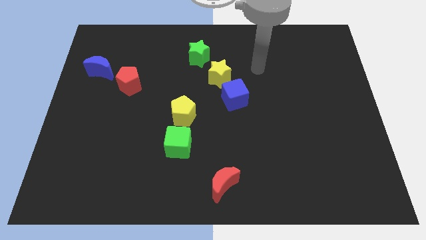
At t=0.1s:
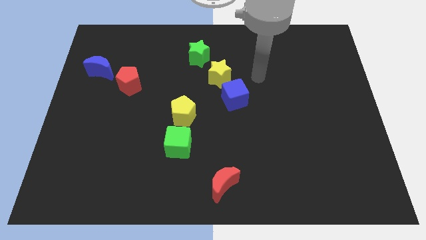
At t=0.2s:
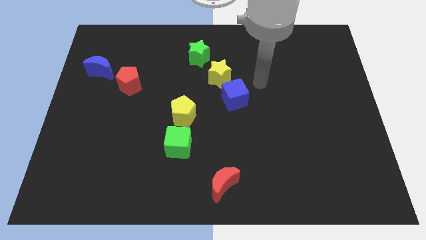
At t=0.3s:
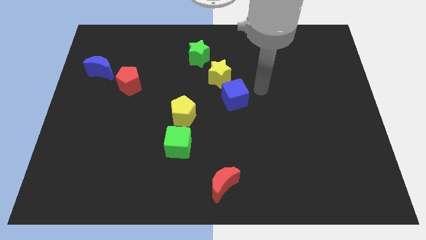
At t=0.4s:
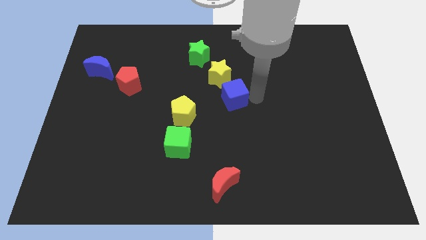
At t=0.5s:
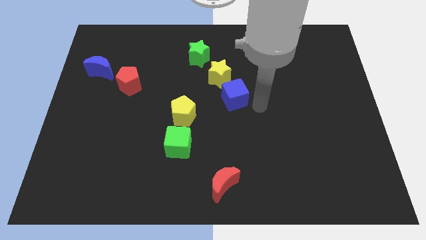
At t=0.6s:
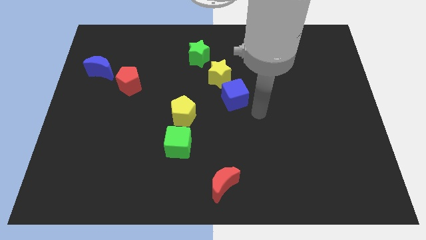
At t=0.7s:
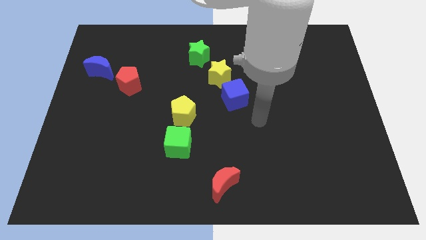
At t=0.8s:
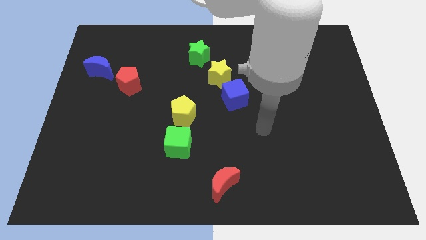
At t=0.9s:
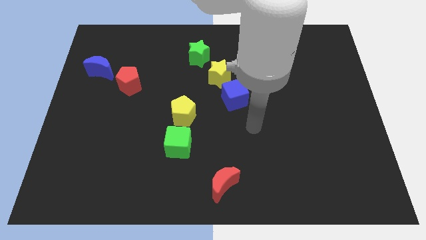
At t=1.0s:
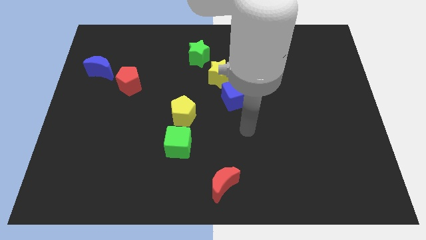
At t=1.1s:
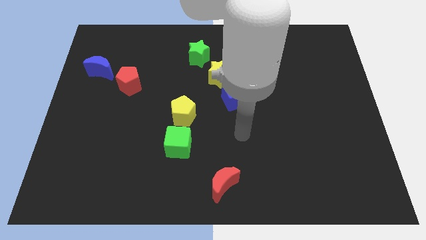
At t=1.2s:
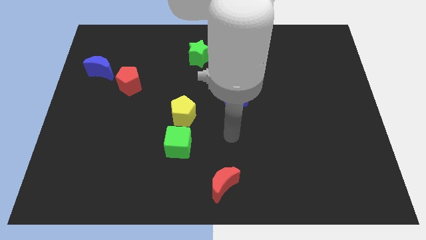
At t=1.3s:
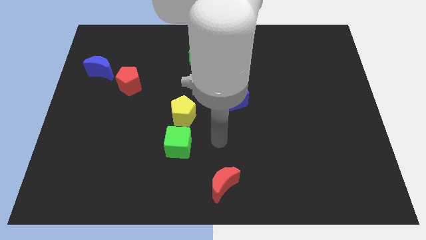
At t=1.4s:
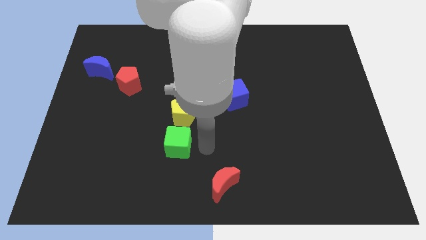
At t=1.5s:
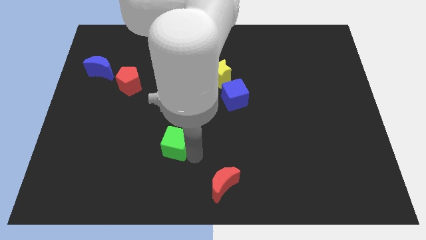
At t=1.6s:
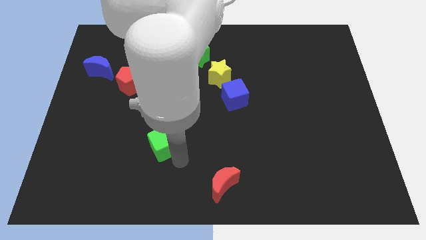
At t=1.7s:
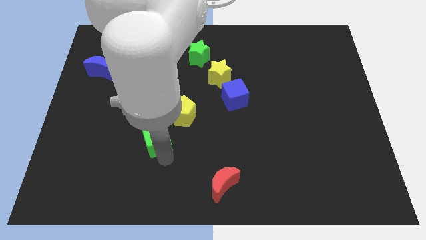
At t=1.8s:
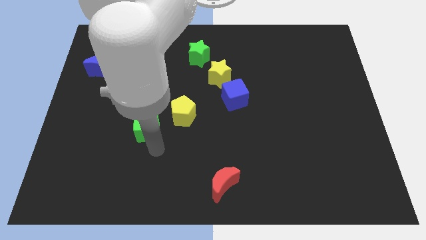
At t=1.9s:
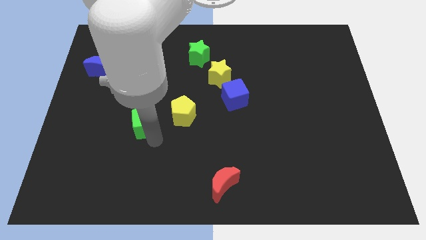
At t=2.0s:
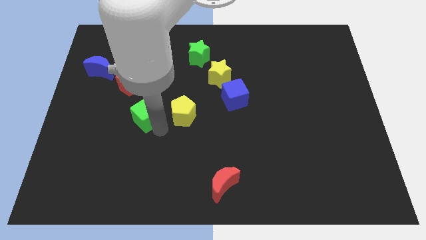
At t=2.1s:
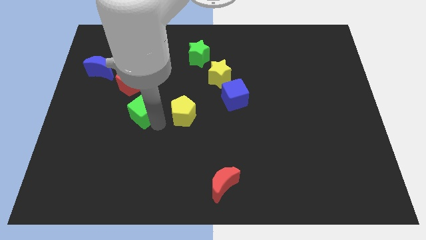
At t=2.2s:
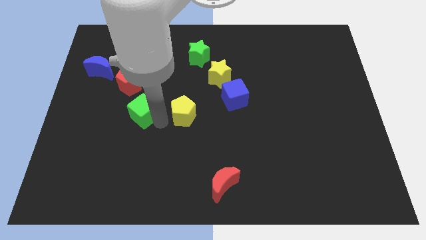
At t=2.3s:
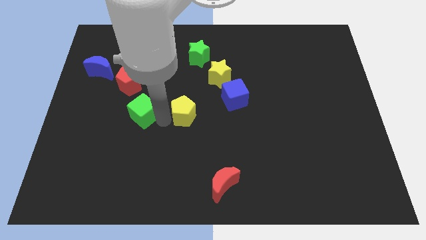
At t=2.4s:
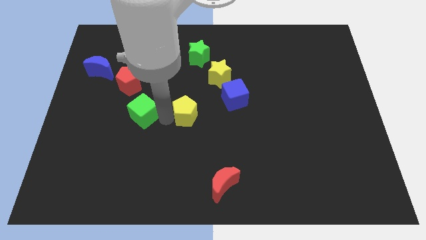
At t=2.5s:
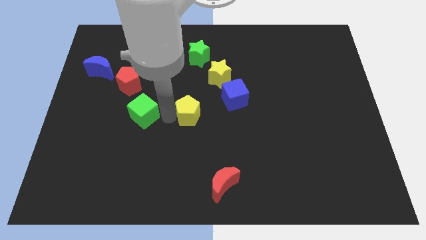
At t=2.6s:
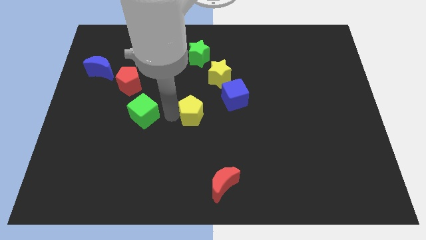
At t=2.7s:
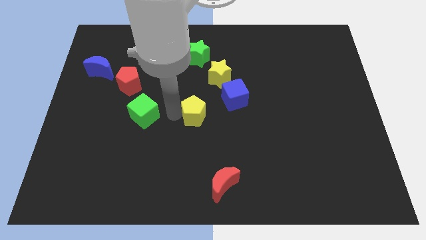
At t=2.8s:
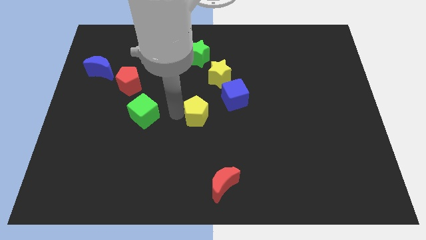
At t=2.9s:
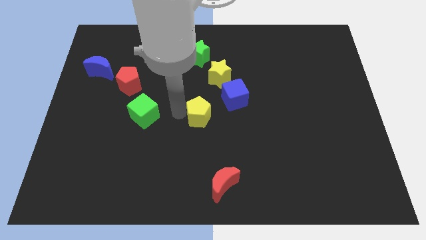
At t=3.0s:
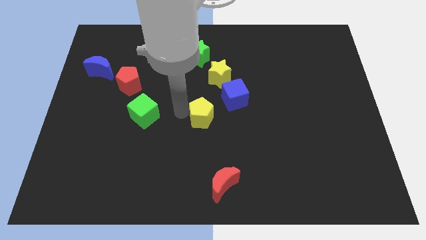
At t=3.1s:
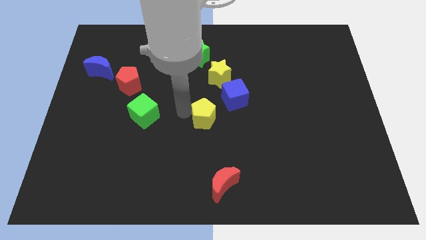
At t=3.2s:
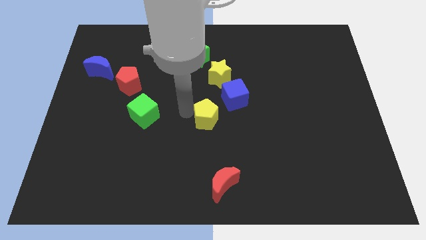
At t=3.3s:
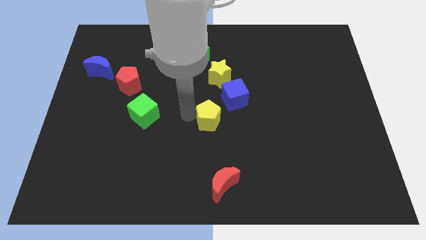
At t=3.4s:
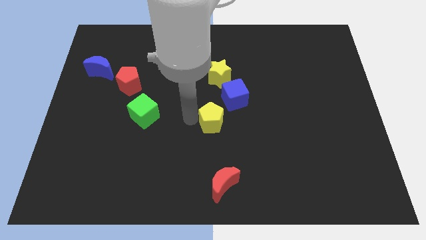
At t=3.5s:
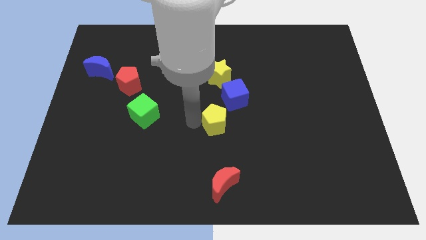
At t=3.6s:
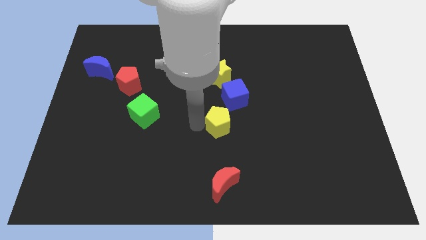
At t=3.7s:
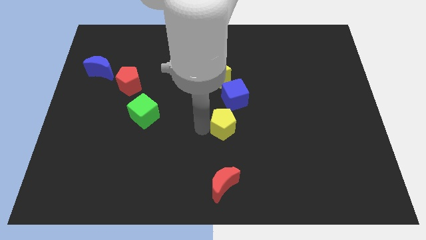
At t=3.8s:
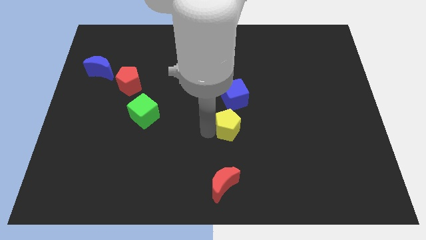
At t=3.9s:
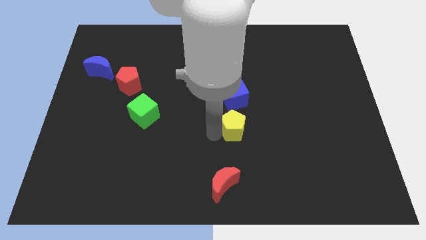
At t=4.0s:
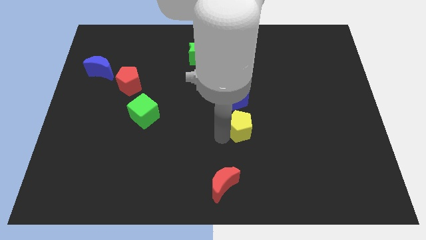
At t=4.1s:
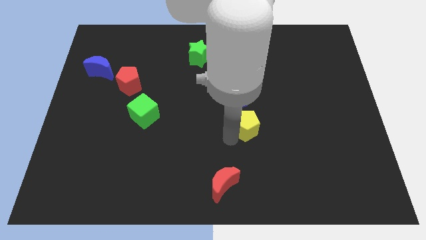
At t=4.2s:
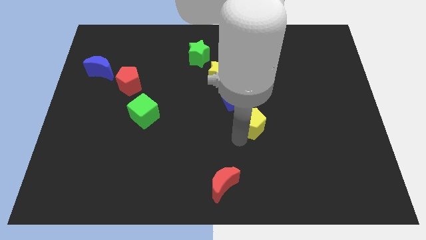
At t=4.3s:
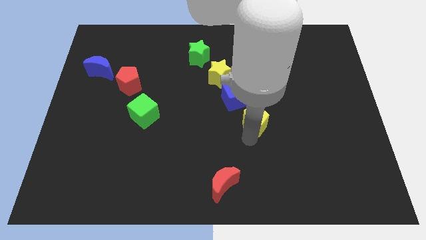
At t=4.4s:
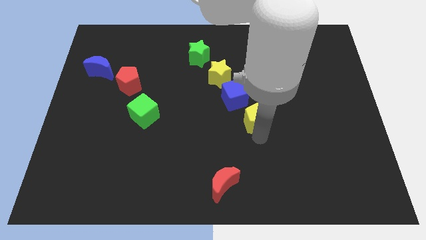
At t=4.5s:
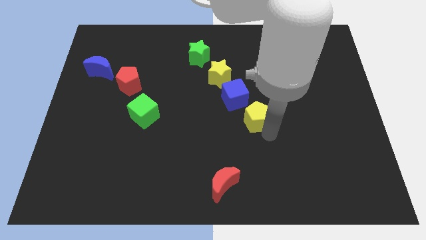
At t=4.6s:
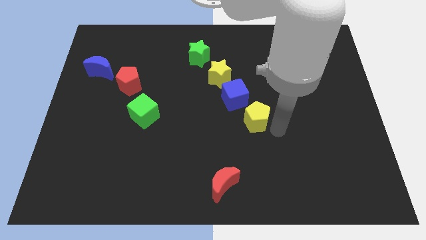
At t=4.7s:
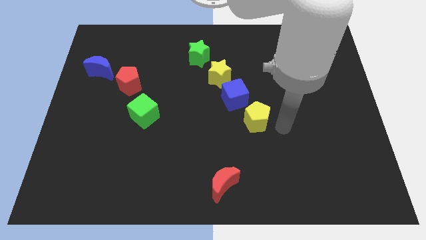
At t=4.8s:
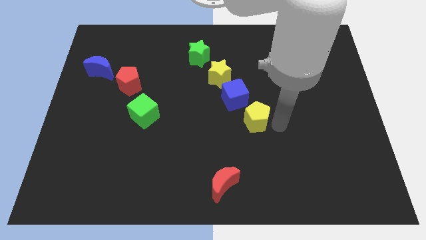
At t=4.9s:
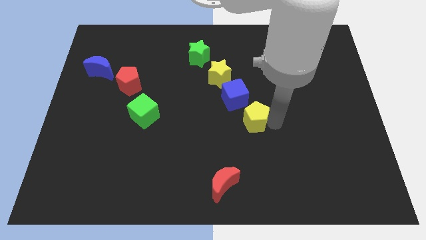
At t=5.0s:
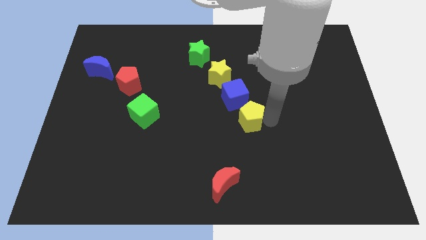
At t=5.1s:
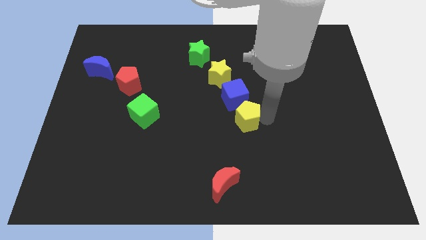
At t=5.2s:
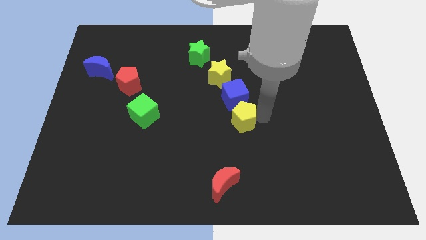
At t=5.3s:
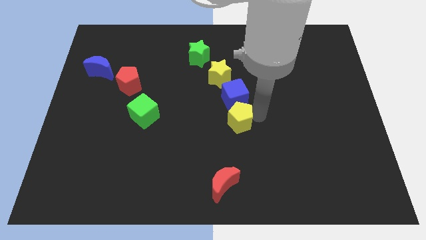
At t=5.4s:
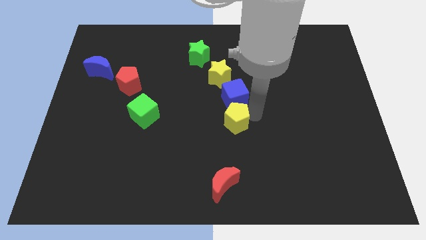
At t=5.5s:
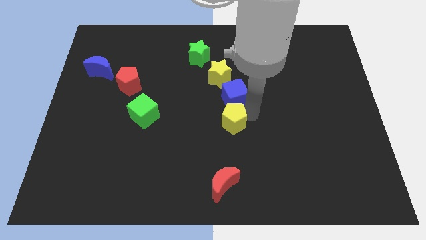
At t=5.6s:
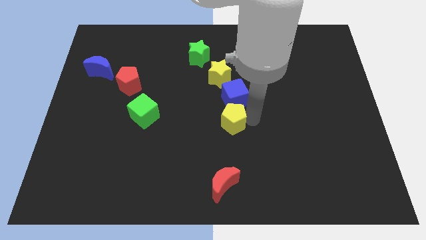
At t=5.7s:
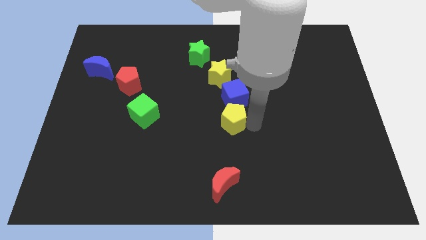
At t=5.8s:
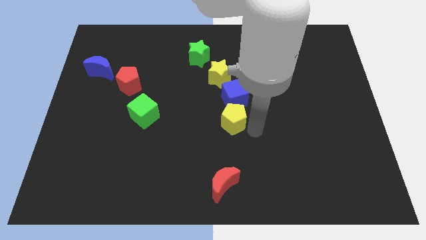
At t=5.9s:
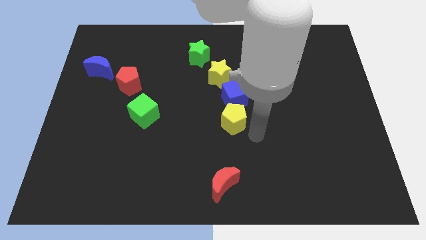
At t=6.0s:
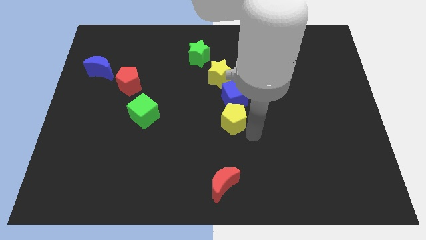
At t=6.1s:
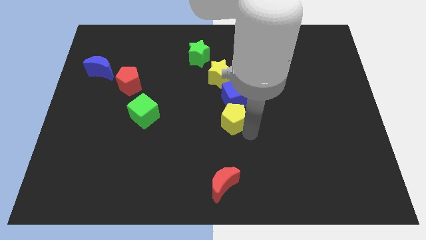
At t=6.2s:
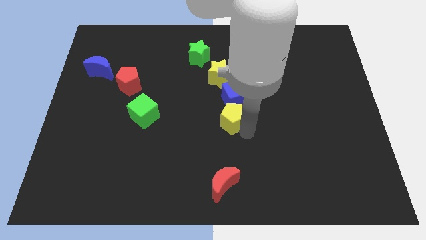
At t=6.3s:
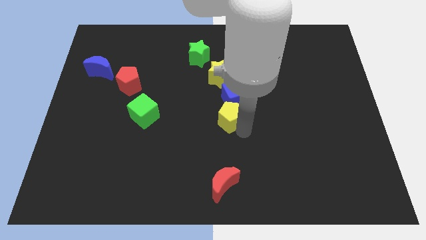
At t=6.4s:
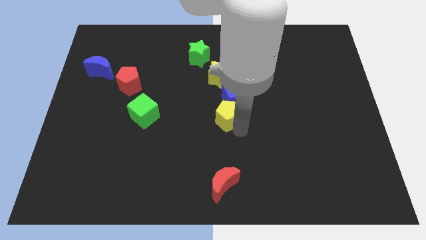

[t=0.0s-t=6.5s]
push the yellow pentagon close to the blue cube

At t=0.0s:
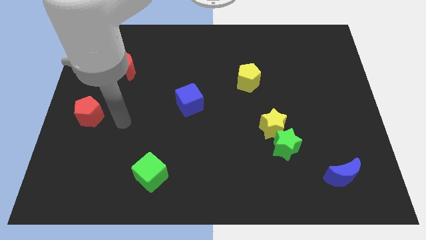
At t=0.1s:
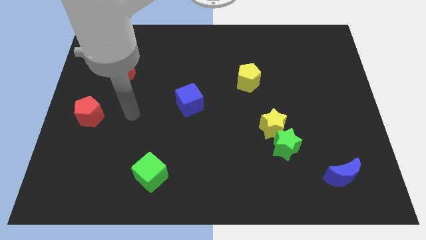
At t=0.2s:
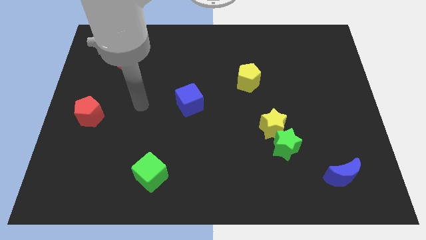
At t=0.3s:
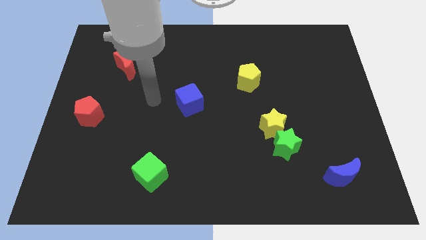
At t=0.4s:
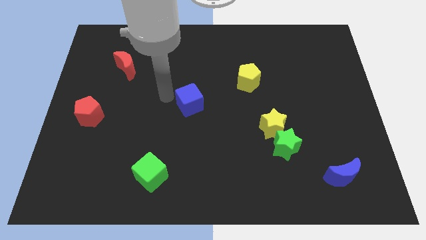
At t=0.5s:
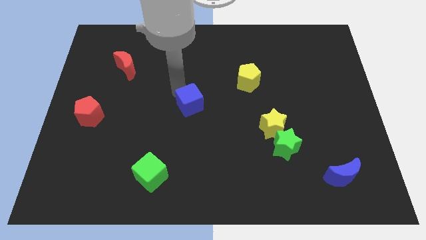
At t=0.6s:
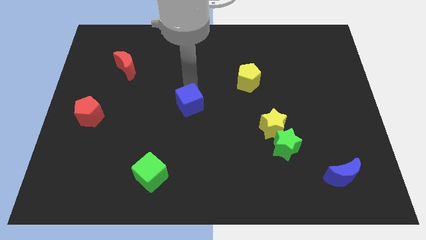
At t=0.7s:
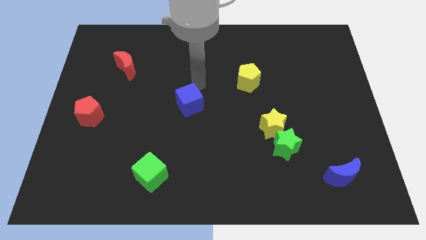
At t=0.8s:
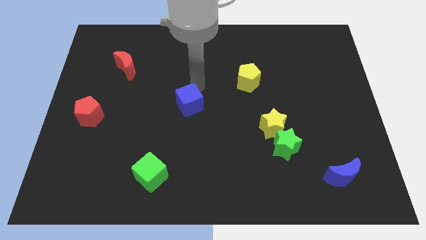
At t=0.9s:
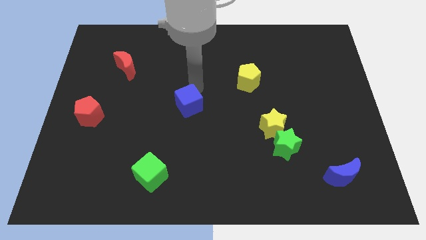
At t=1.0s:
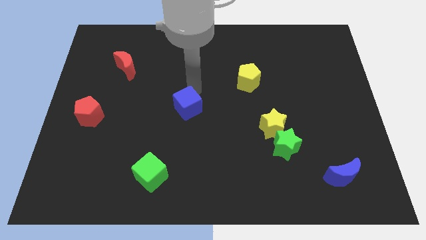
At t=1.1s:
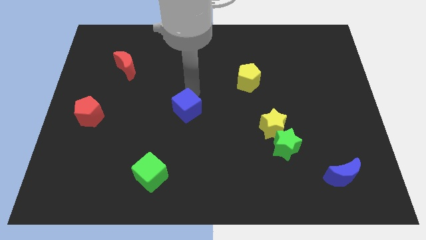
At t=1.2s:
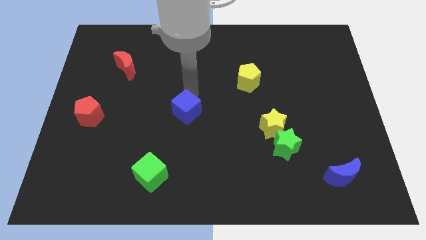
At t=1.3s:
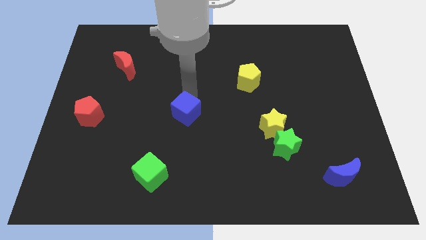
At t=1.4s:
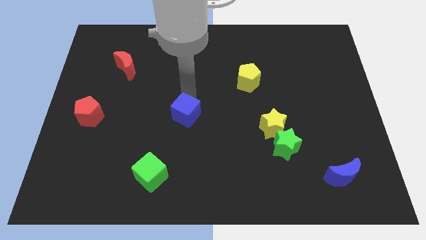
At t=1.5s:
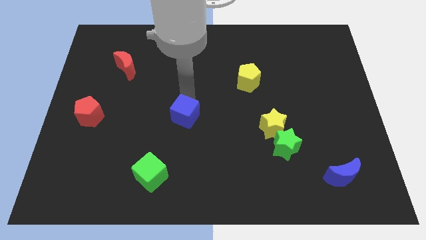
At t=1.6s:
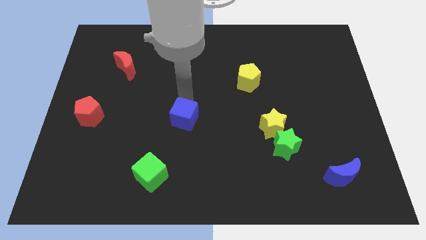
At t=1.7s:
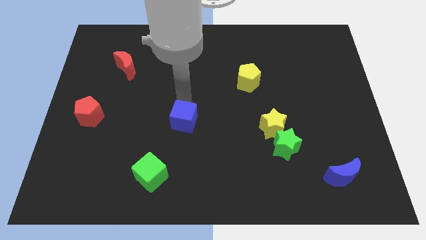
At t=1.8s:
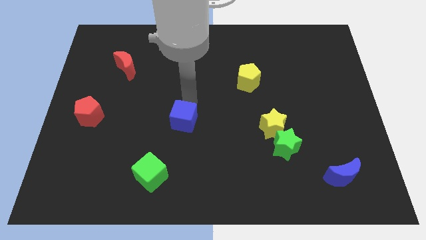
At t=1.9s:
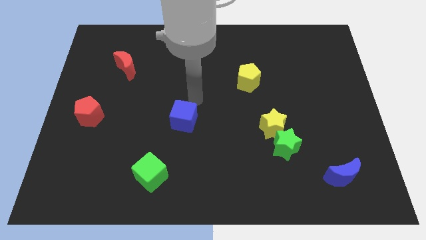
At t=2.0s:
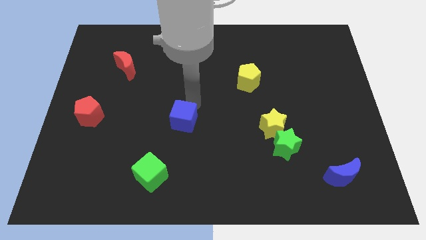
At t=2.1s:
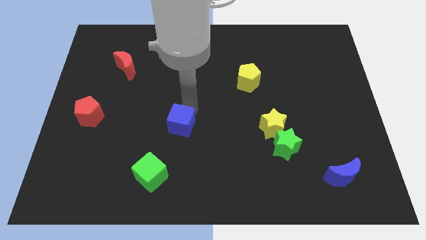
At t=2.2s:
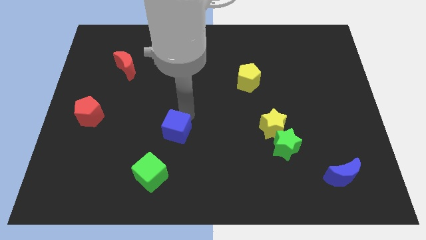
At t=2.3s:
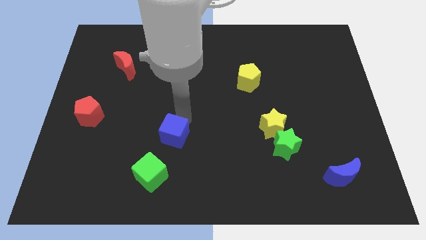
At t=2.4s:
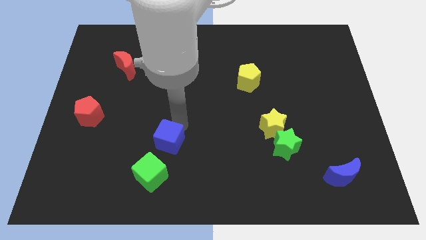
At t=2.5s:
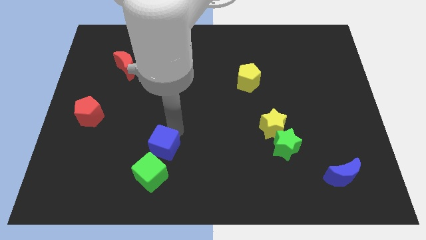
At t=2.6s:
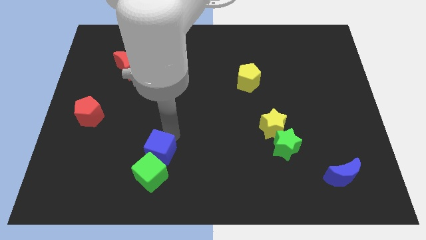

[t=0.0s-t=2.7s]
slide the blue cube next to the green cube
